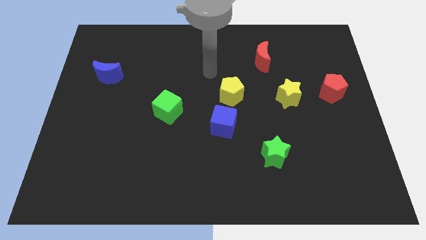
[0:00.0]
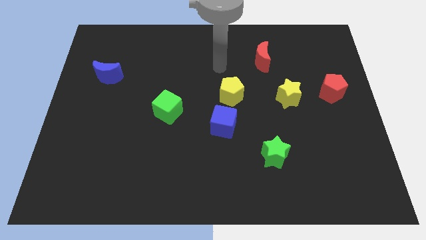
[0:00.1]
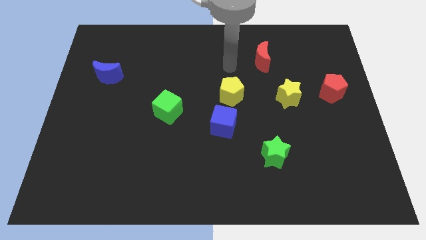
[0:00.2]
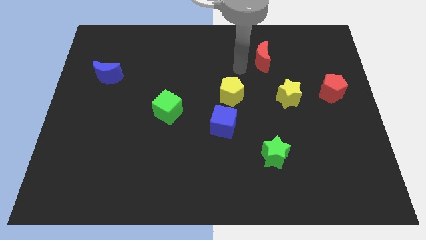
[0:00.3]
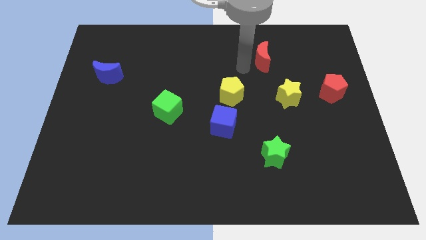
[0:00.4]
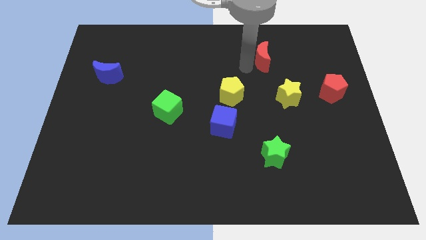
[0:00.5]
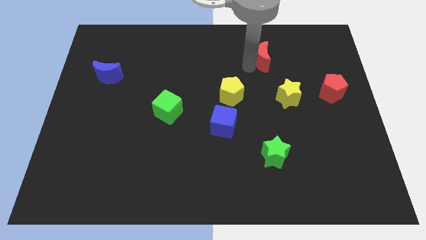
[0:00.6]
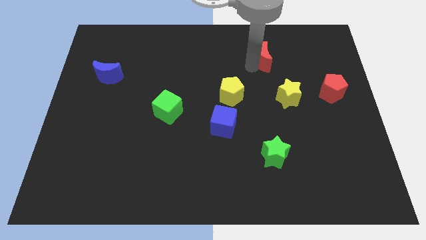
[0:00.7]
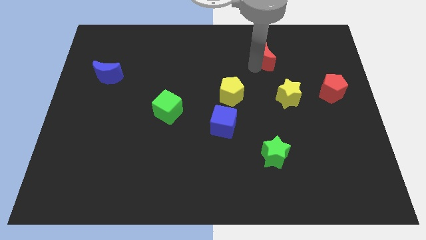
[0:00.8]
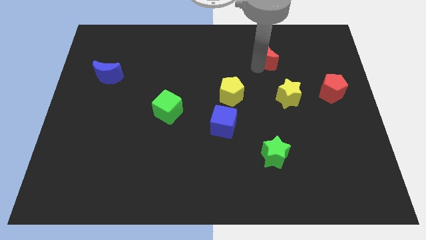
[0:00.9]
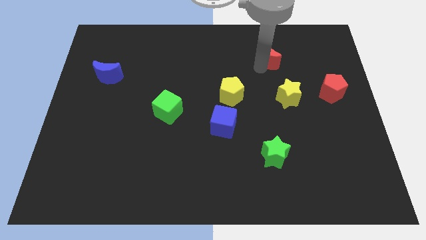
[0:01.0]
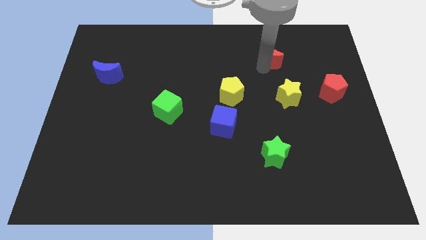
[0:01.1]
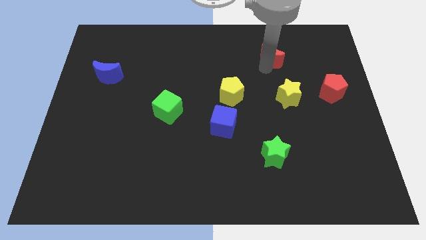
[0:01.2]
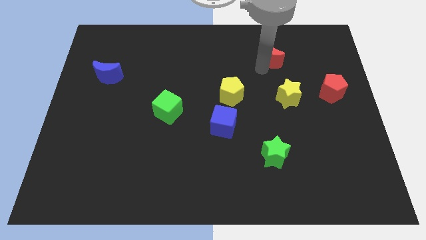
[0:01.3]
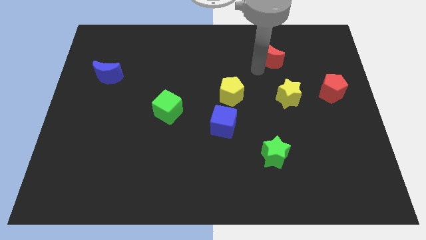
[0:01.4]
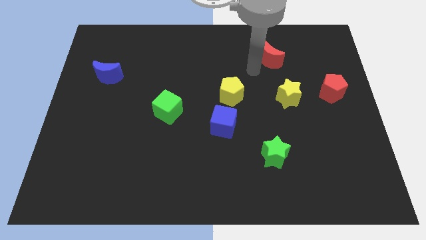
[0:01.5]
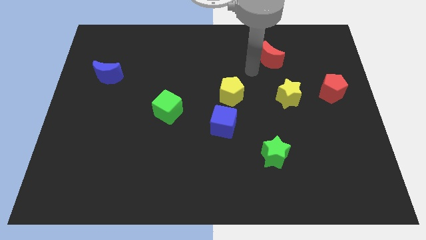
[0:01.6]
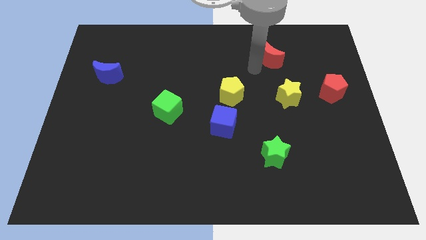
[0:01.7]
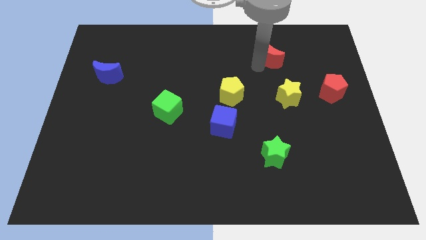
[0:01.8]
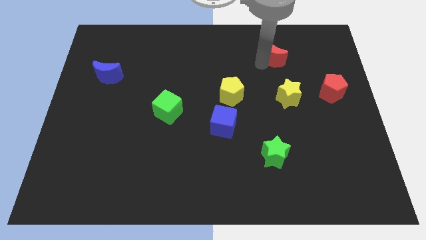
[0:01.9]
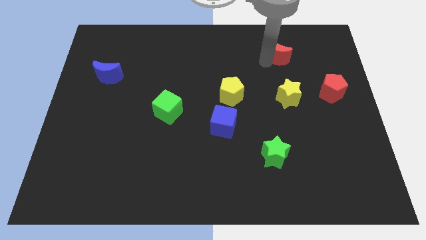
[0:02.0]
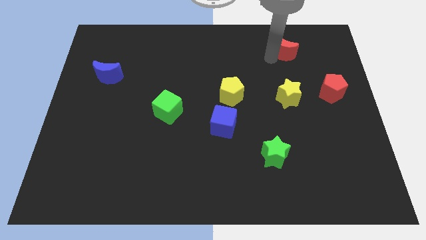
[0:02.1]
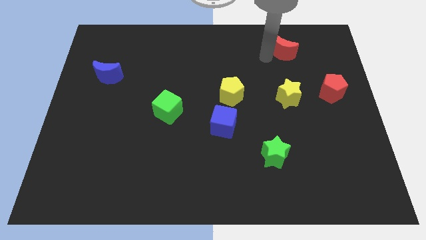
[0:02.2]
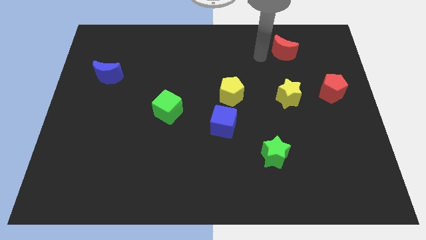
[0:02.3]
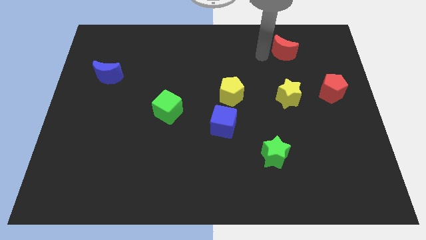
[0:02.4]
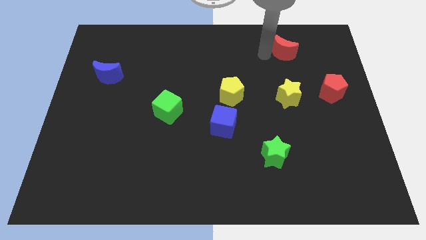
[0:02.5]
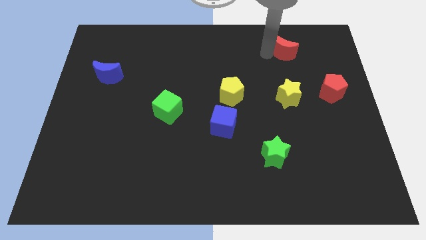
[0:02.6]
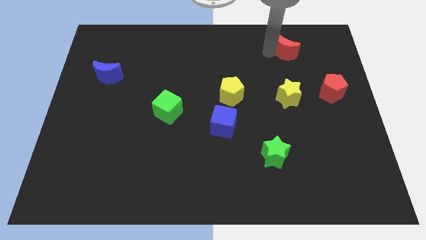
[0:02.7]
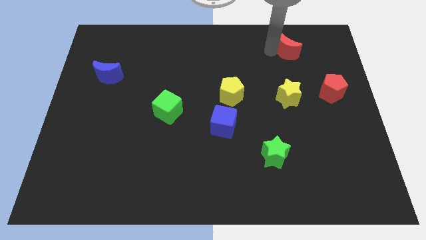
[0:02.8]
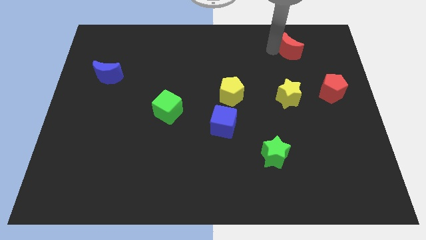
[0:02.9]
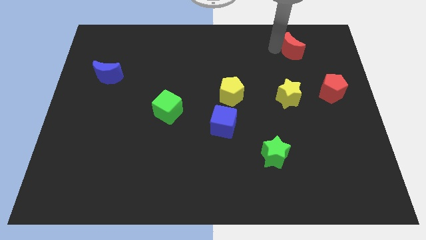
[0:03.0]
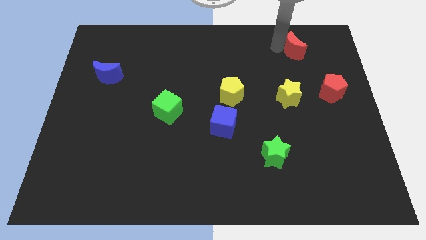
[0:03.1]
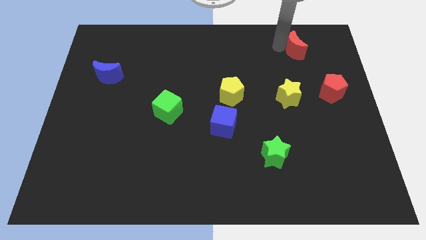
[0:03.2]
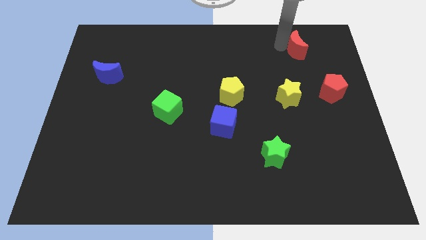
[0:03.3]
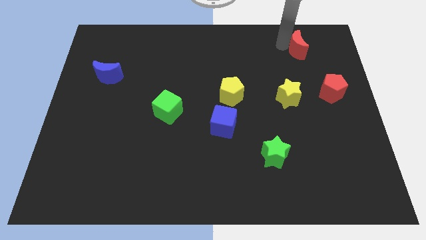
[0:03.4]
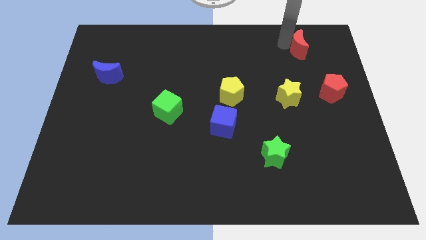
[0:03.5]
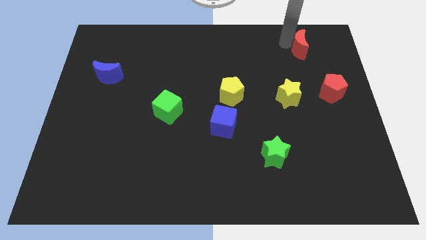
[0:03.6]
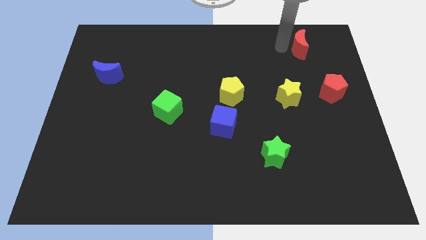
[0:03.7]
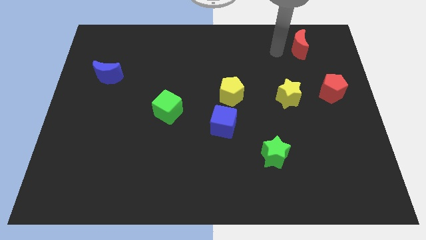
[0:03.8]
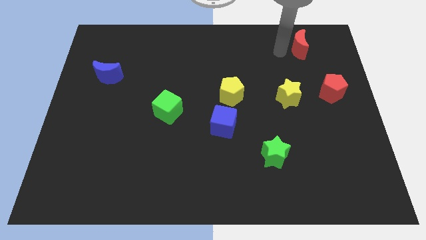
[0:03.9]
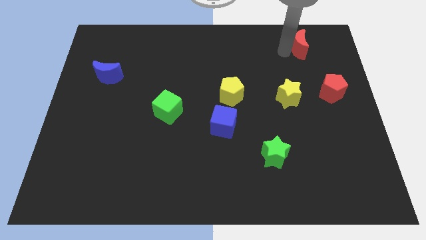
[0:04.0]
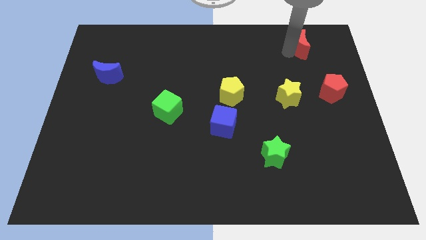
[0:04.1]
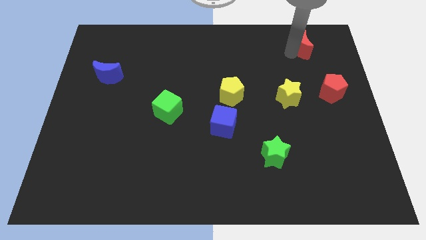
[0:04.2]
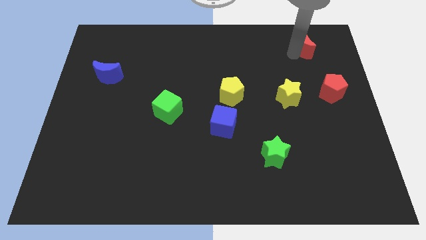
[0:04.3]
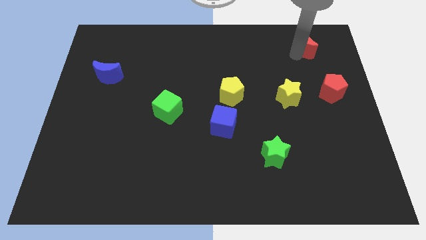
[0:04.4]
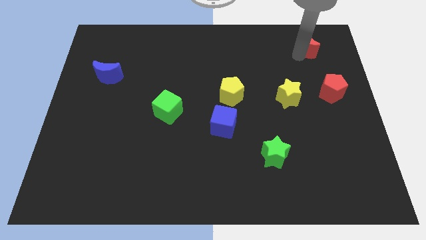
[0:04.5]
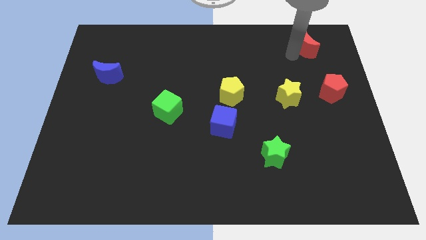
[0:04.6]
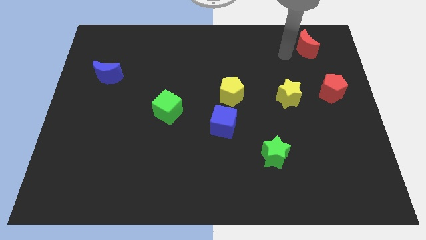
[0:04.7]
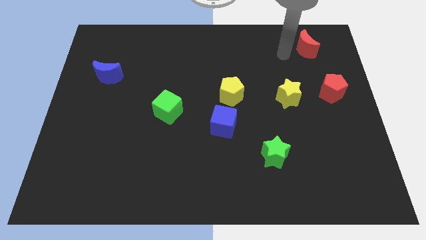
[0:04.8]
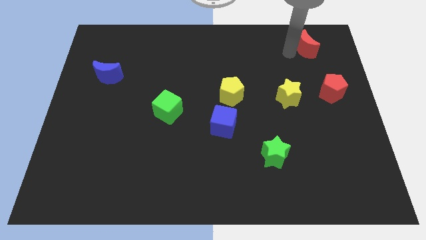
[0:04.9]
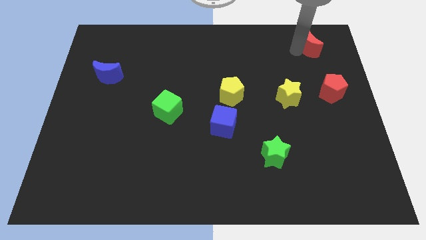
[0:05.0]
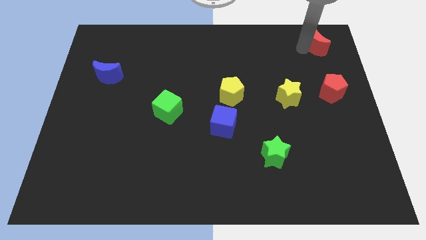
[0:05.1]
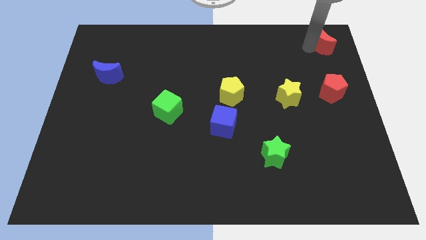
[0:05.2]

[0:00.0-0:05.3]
put the red moon to the top right of the board

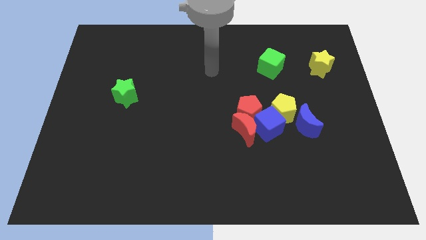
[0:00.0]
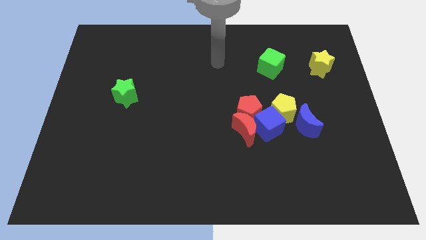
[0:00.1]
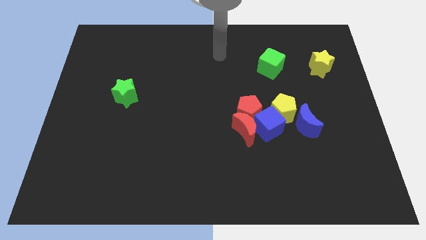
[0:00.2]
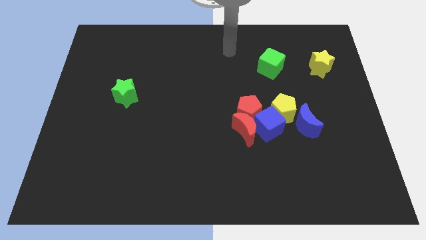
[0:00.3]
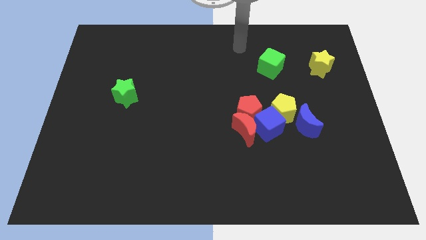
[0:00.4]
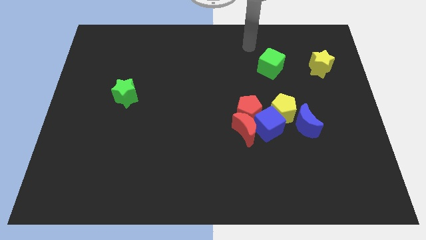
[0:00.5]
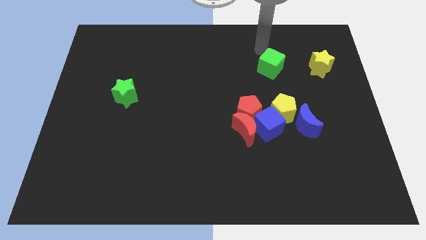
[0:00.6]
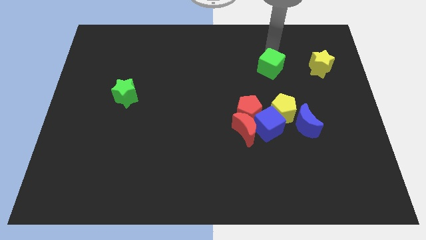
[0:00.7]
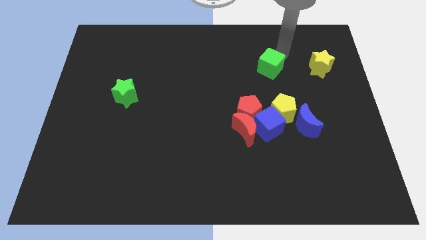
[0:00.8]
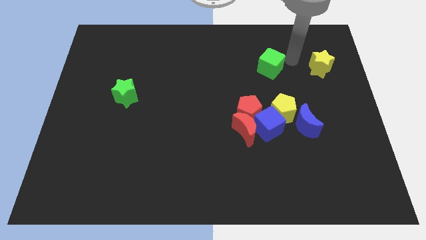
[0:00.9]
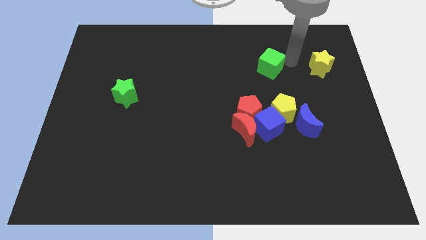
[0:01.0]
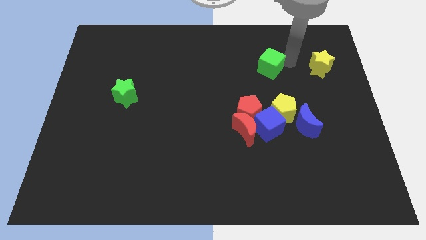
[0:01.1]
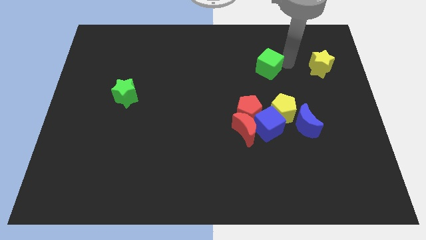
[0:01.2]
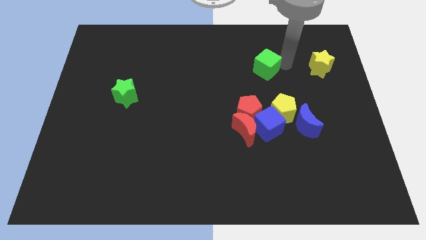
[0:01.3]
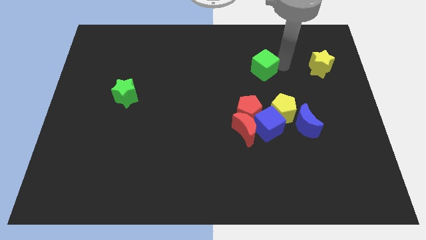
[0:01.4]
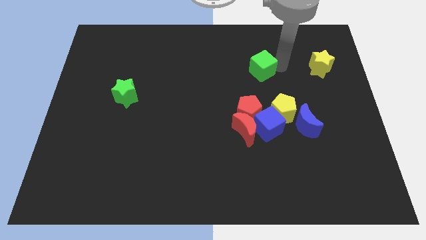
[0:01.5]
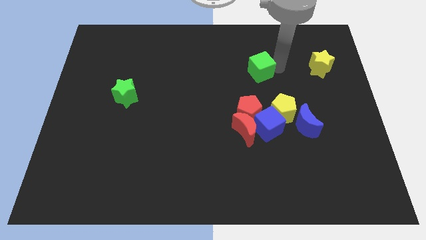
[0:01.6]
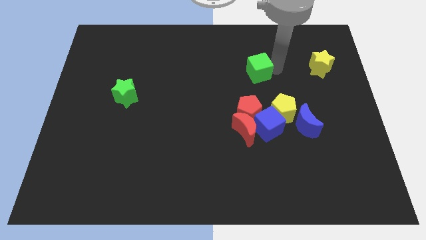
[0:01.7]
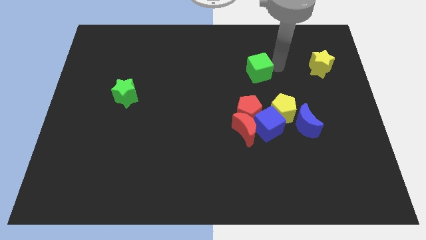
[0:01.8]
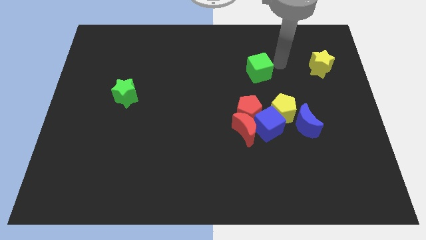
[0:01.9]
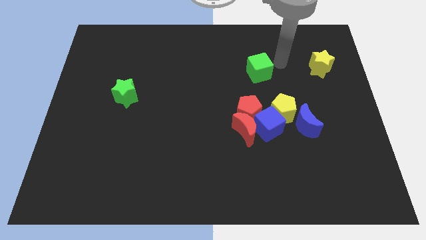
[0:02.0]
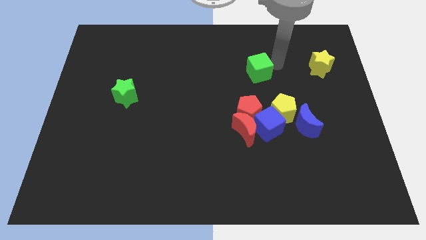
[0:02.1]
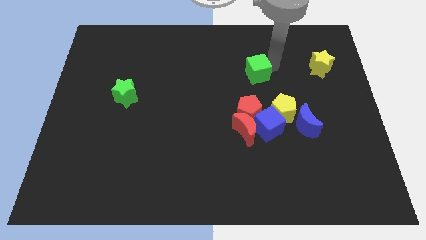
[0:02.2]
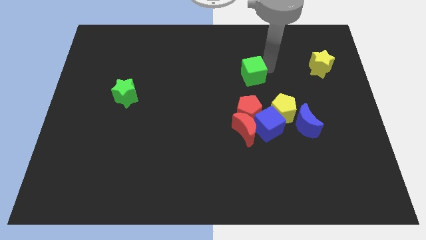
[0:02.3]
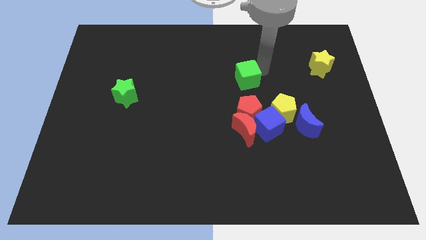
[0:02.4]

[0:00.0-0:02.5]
put the green cube to the center of the board
